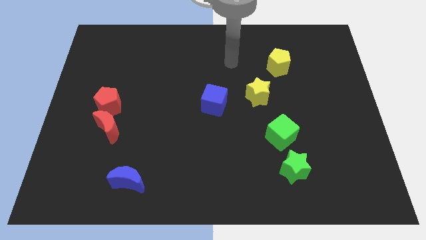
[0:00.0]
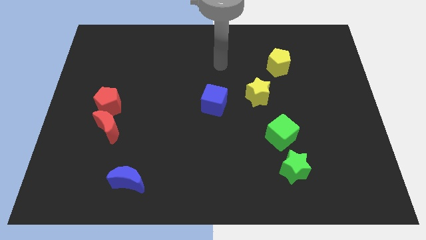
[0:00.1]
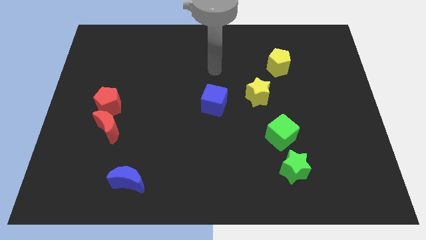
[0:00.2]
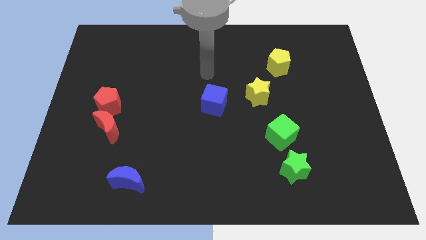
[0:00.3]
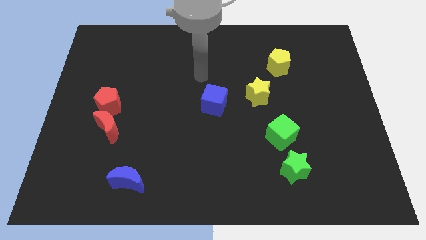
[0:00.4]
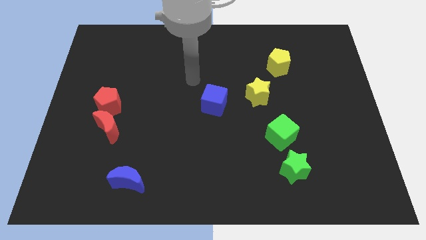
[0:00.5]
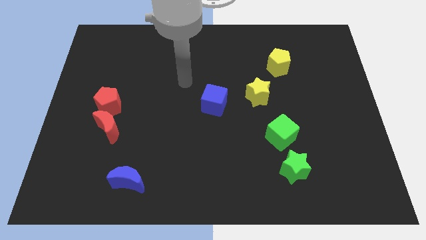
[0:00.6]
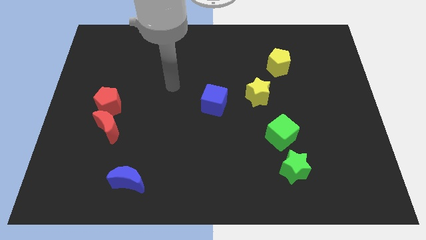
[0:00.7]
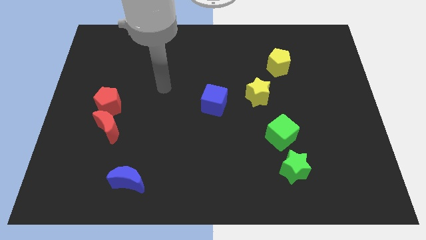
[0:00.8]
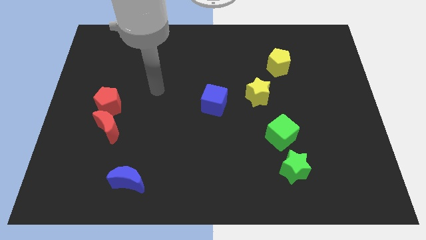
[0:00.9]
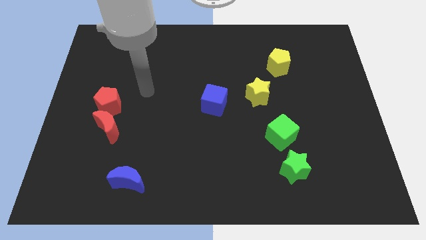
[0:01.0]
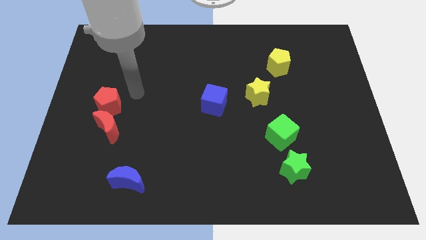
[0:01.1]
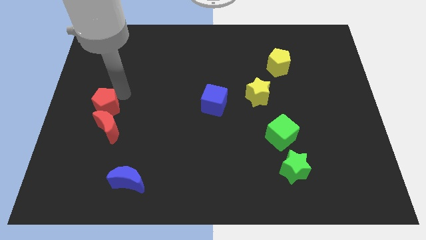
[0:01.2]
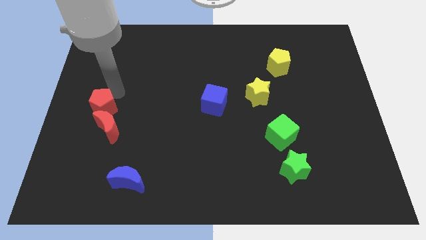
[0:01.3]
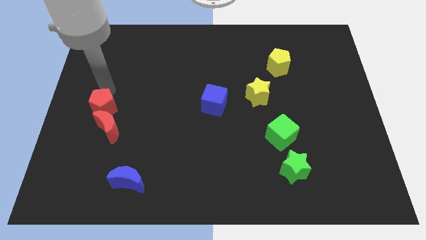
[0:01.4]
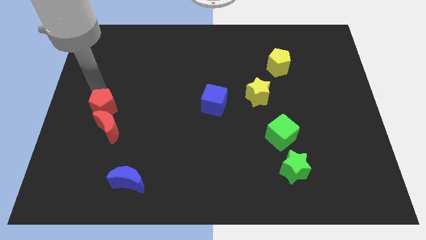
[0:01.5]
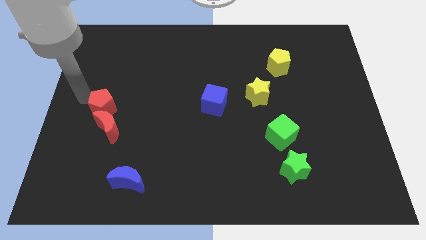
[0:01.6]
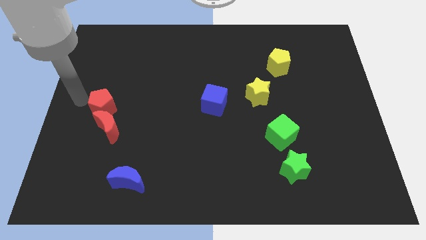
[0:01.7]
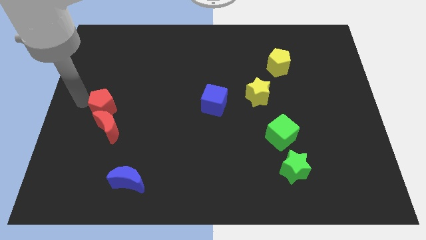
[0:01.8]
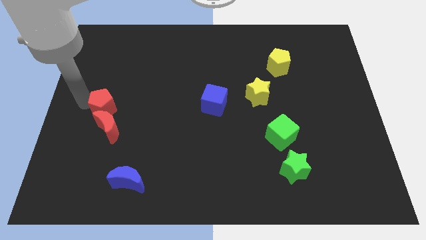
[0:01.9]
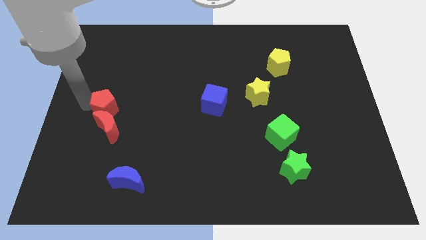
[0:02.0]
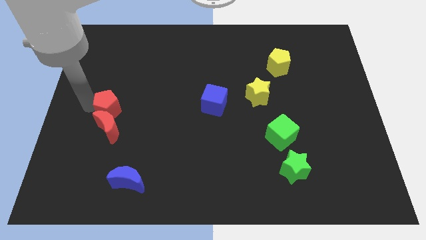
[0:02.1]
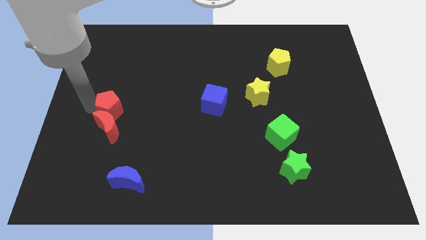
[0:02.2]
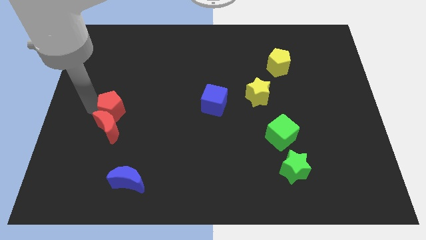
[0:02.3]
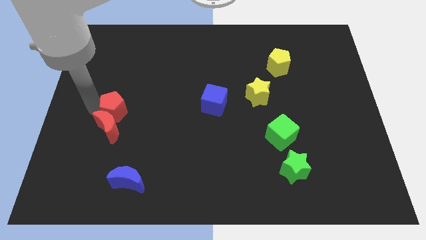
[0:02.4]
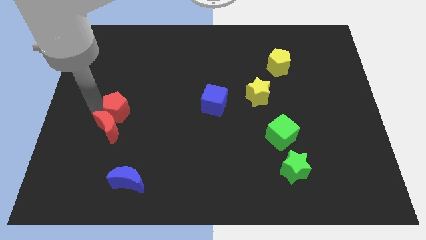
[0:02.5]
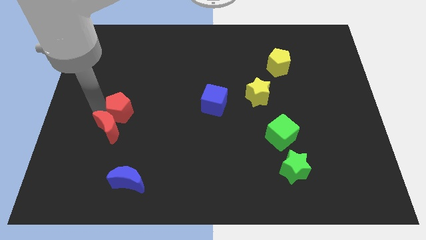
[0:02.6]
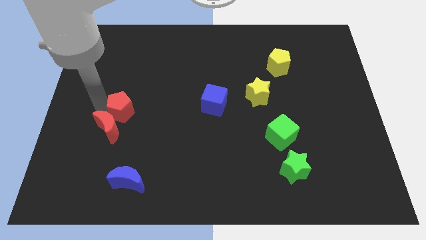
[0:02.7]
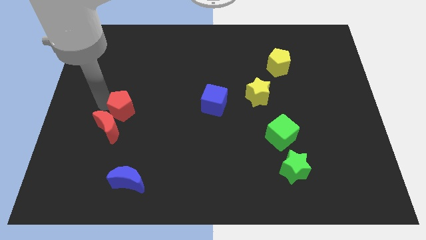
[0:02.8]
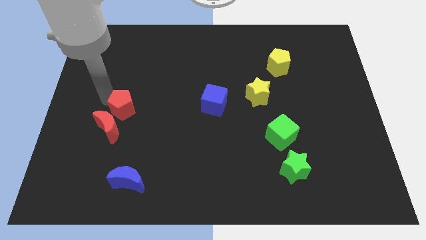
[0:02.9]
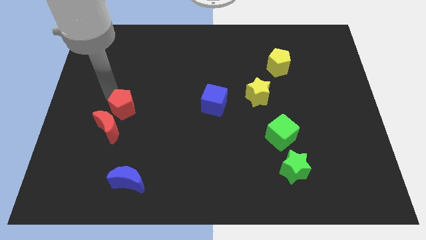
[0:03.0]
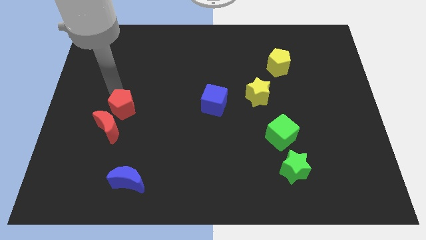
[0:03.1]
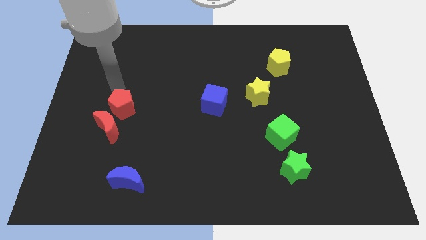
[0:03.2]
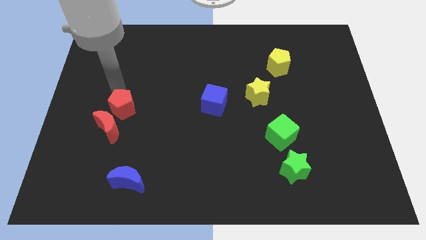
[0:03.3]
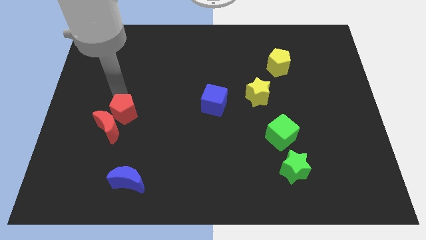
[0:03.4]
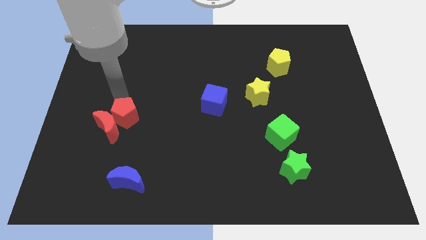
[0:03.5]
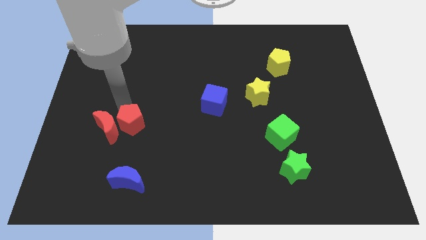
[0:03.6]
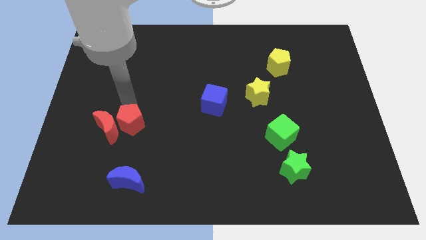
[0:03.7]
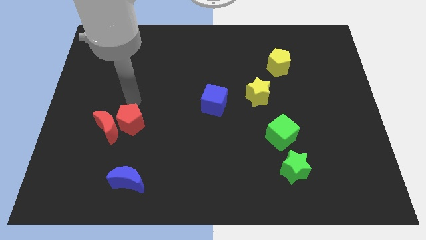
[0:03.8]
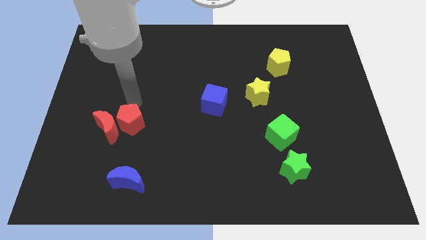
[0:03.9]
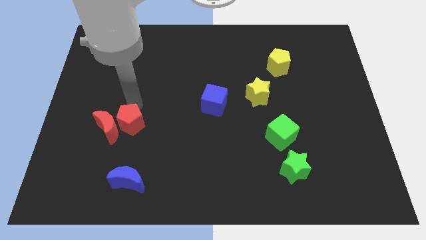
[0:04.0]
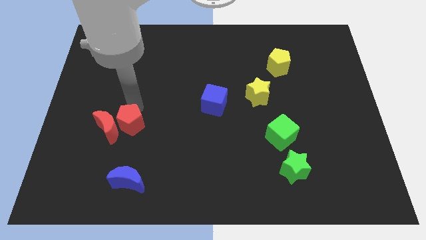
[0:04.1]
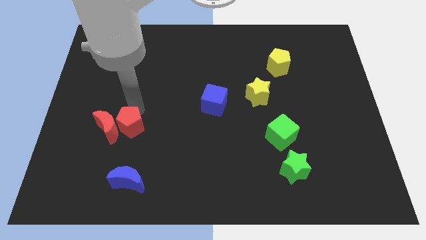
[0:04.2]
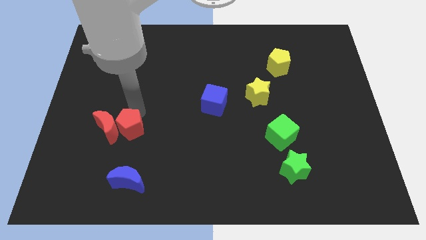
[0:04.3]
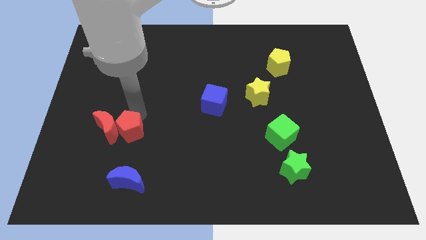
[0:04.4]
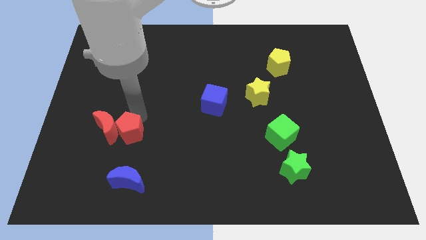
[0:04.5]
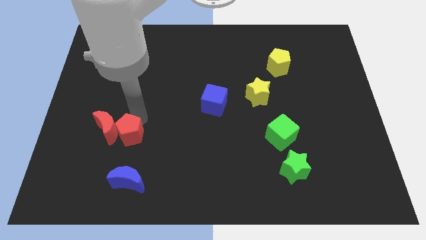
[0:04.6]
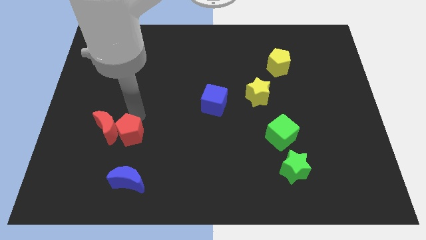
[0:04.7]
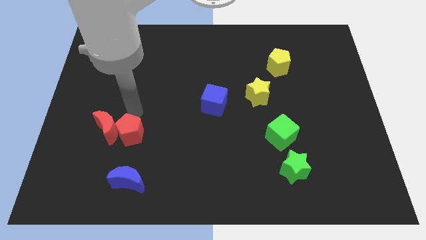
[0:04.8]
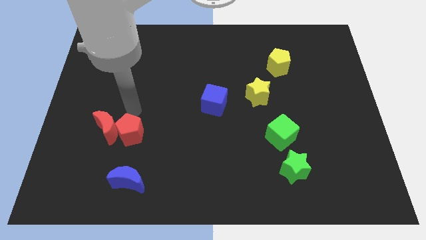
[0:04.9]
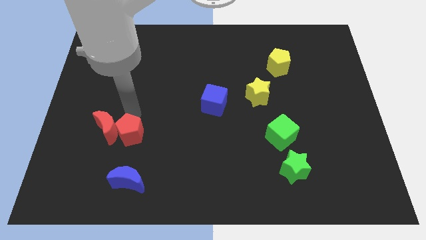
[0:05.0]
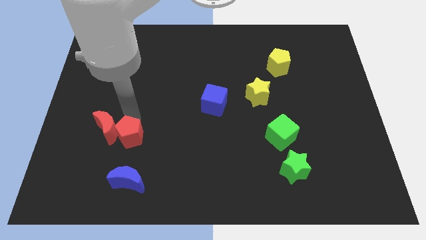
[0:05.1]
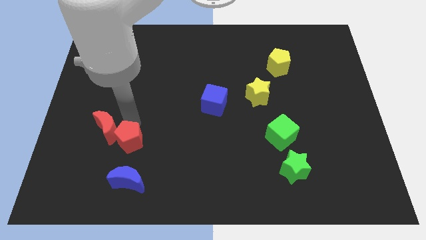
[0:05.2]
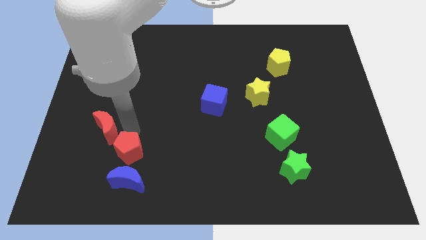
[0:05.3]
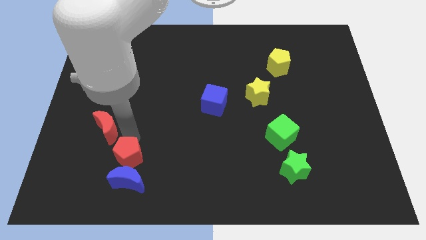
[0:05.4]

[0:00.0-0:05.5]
put the red pentagon next to the blue moon

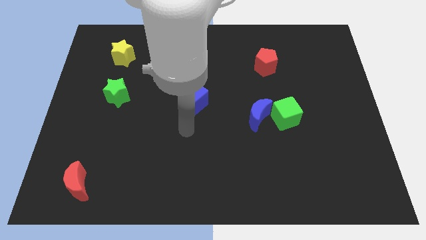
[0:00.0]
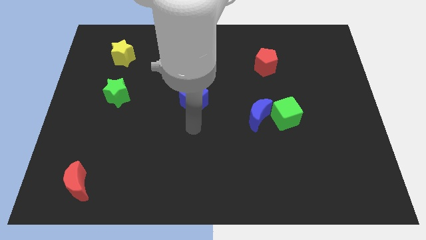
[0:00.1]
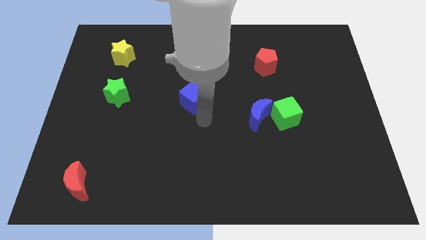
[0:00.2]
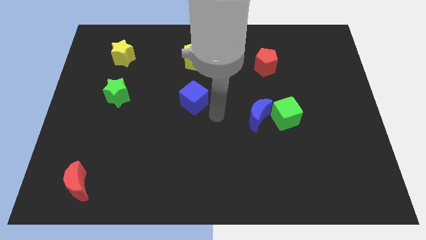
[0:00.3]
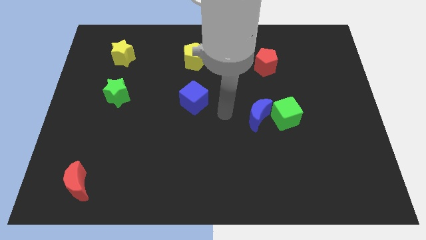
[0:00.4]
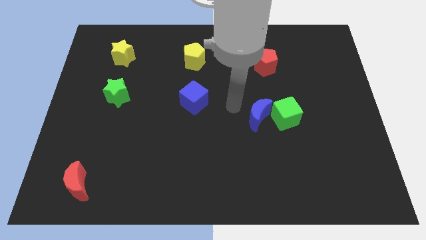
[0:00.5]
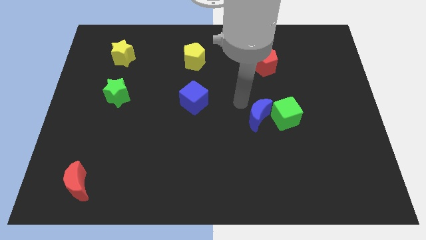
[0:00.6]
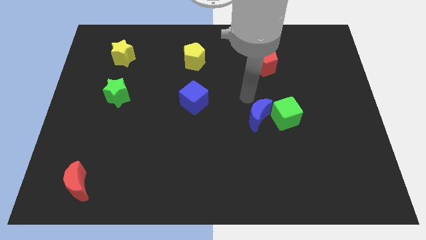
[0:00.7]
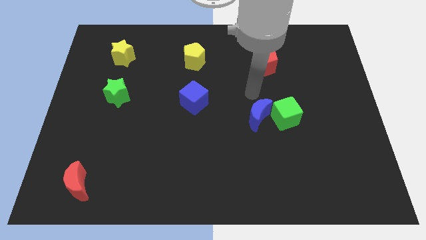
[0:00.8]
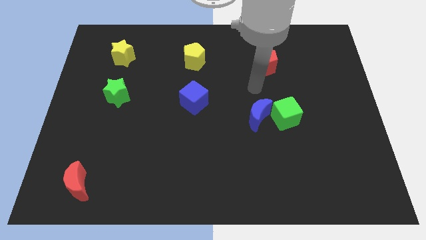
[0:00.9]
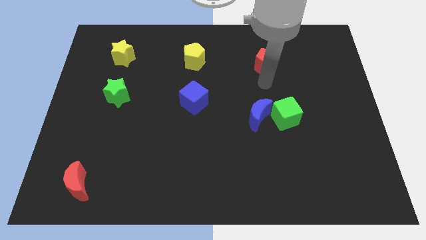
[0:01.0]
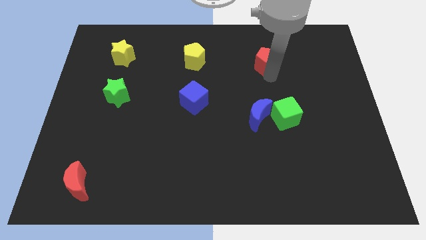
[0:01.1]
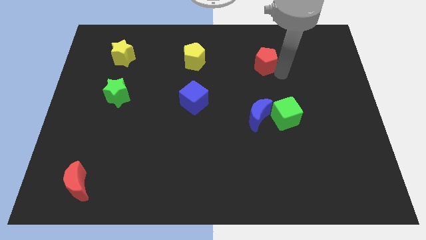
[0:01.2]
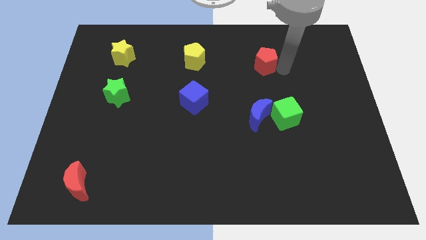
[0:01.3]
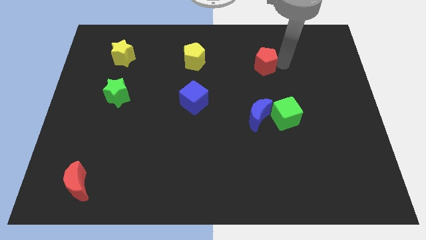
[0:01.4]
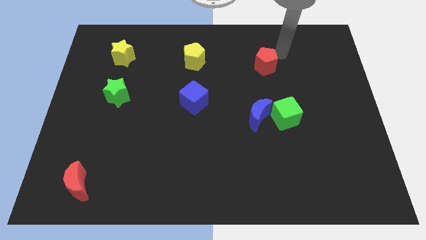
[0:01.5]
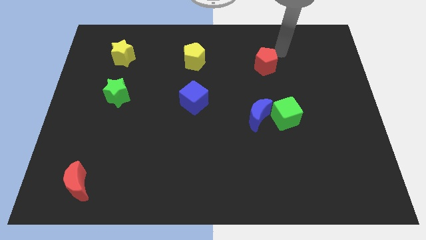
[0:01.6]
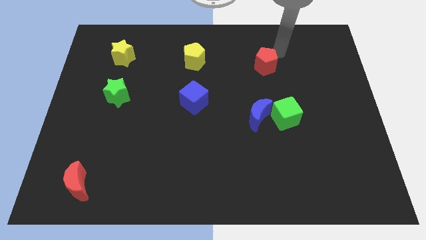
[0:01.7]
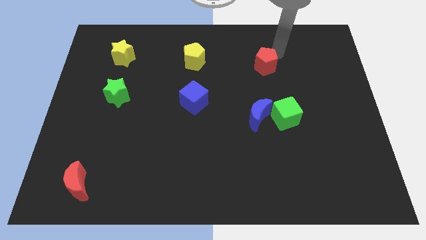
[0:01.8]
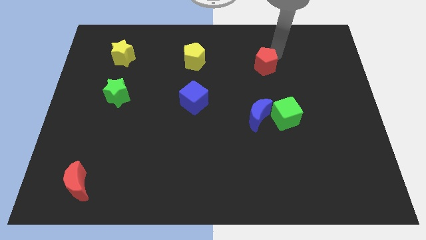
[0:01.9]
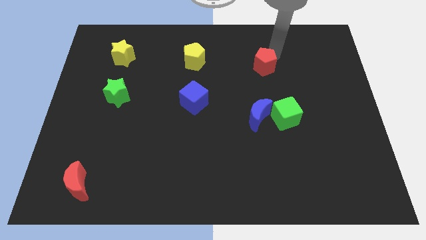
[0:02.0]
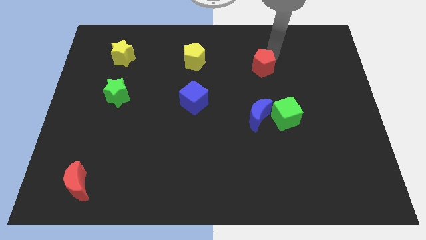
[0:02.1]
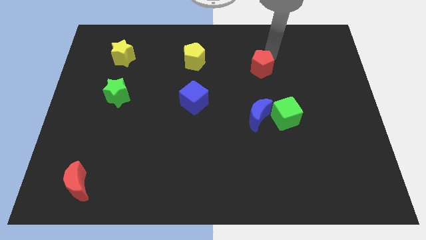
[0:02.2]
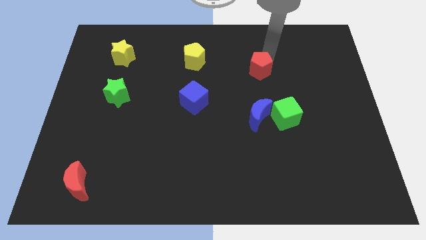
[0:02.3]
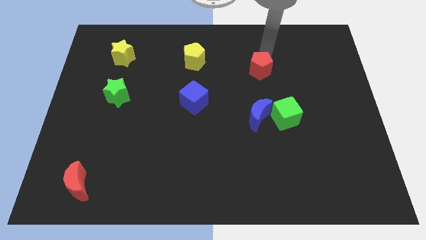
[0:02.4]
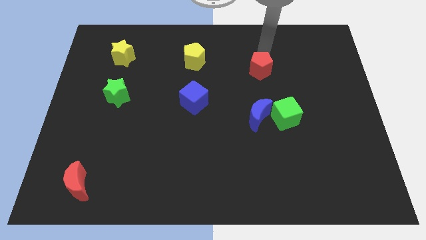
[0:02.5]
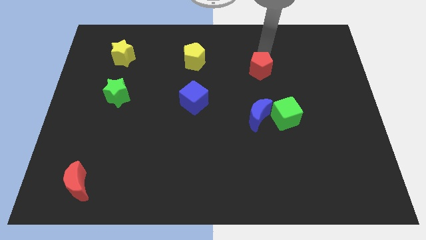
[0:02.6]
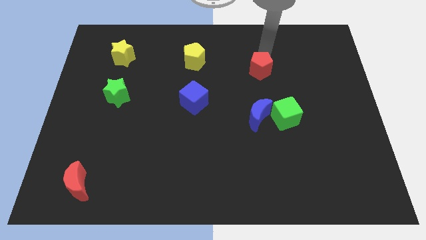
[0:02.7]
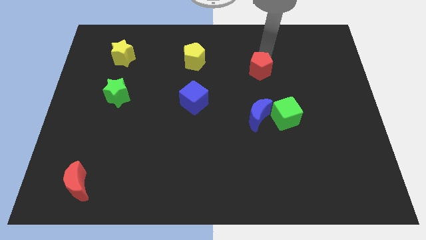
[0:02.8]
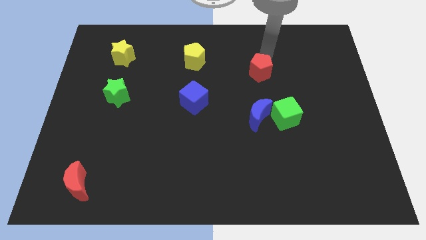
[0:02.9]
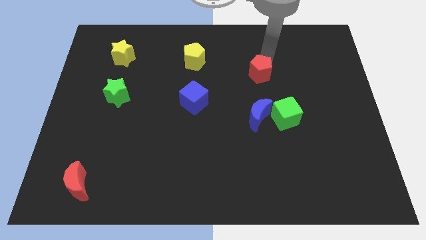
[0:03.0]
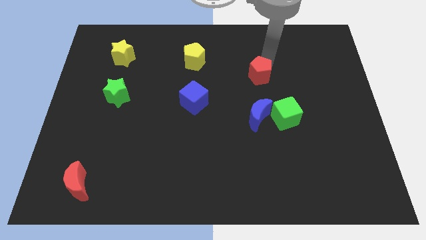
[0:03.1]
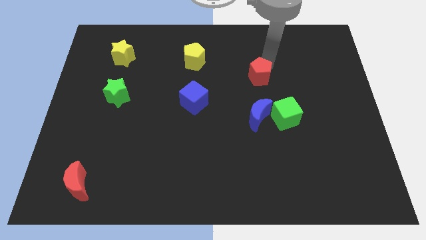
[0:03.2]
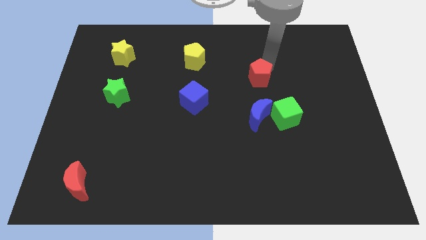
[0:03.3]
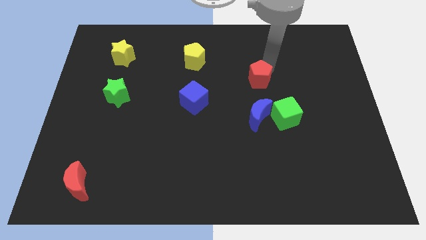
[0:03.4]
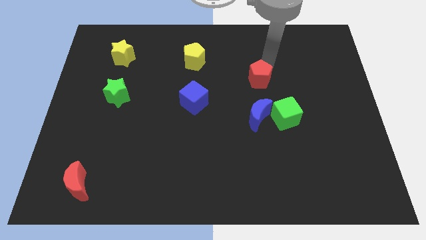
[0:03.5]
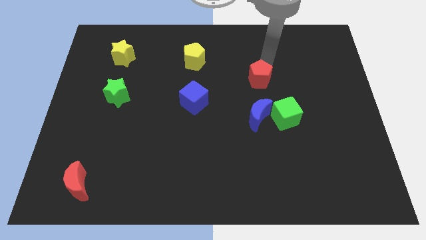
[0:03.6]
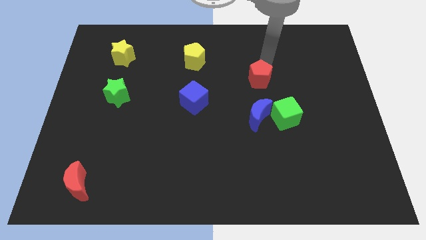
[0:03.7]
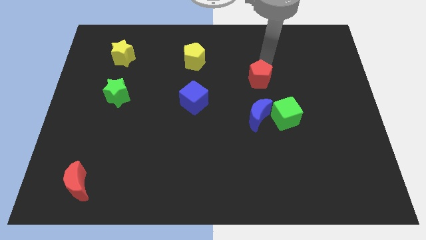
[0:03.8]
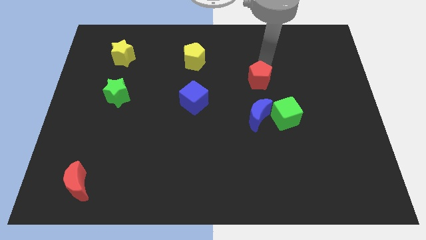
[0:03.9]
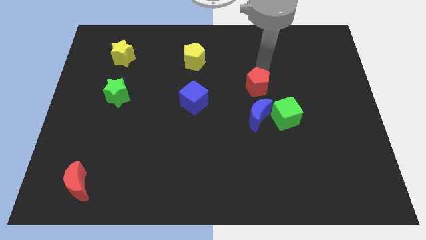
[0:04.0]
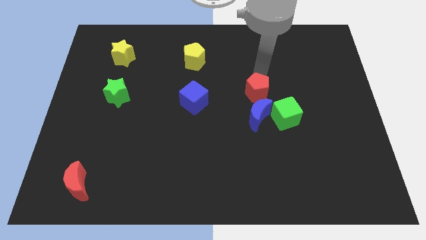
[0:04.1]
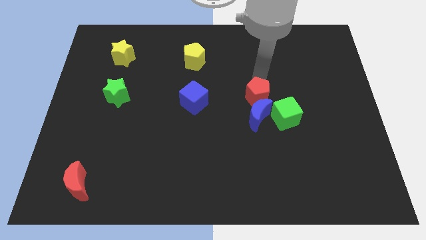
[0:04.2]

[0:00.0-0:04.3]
put the red pentagon to the blue moon
